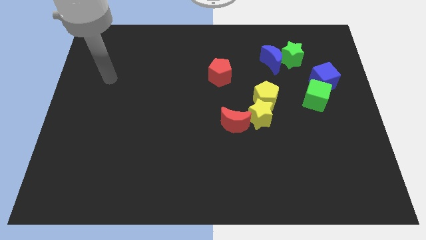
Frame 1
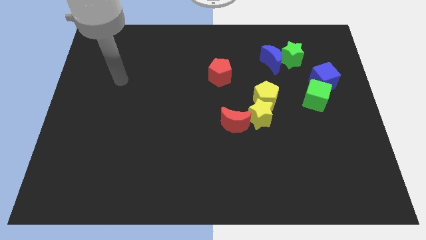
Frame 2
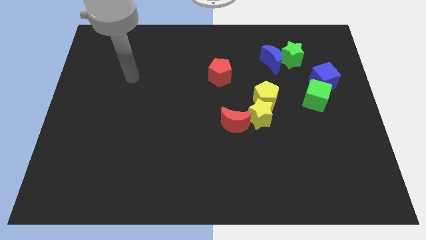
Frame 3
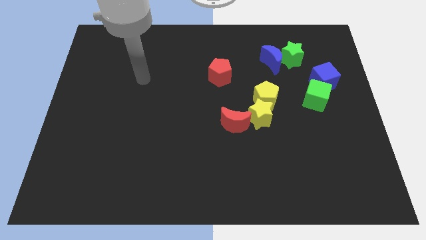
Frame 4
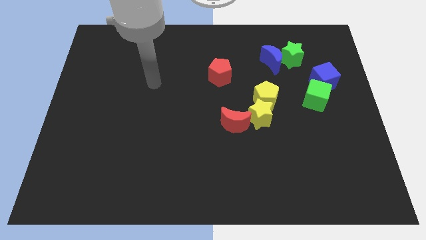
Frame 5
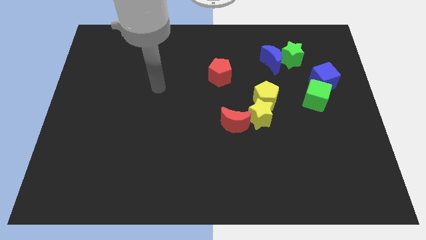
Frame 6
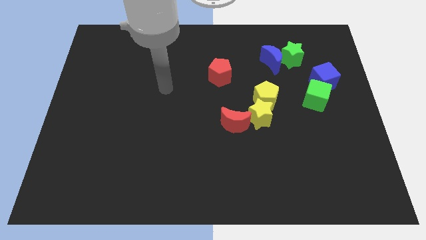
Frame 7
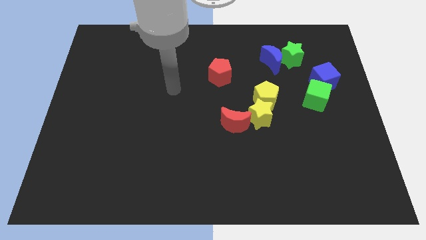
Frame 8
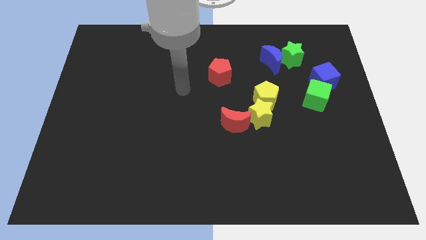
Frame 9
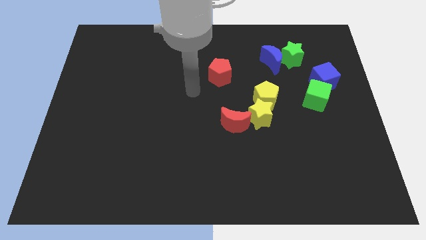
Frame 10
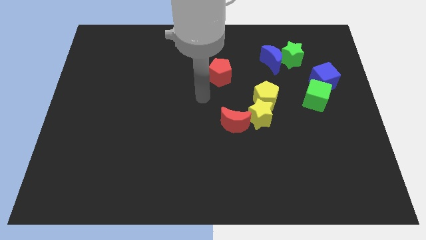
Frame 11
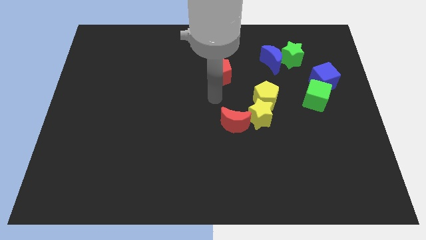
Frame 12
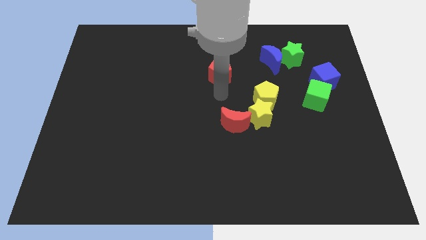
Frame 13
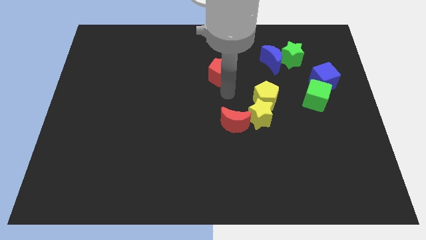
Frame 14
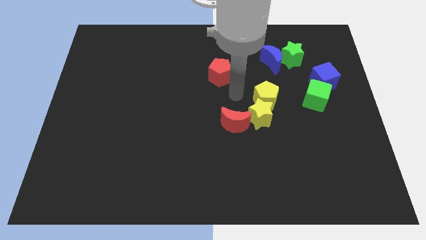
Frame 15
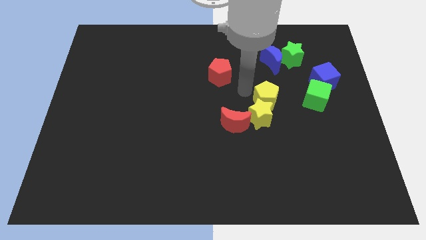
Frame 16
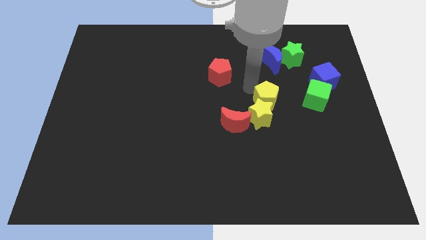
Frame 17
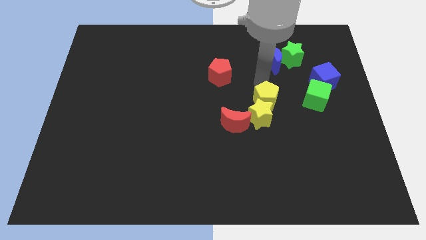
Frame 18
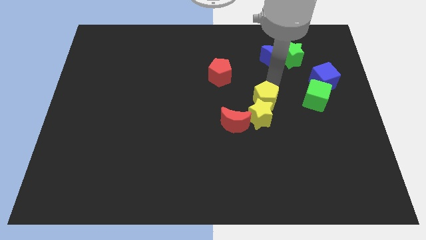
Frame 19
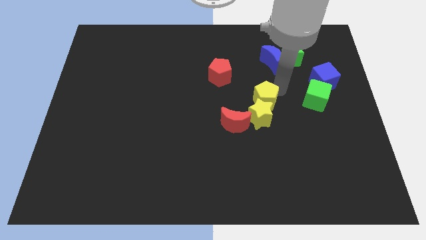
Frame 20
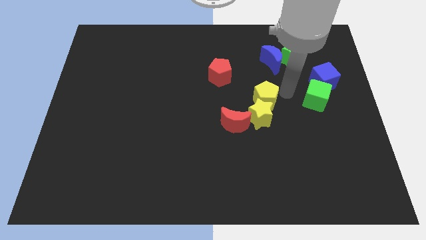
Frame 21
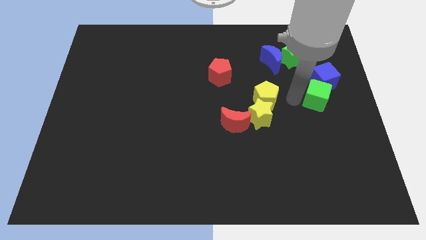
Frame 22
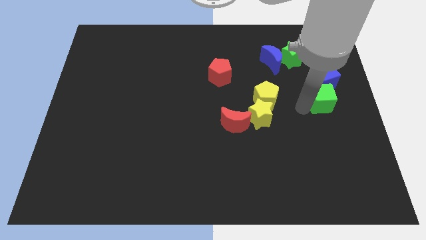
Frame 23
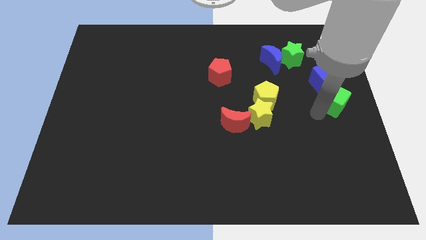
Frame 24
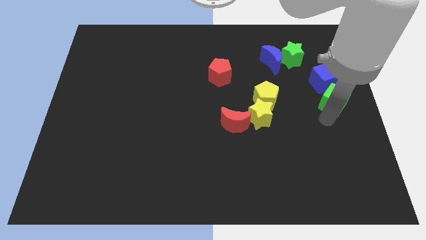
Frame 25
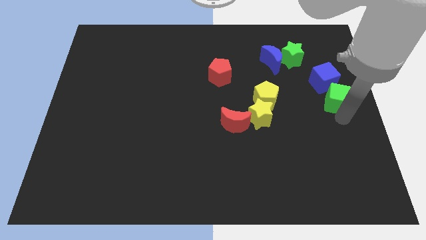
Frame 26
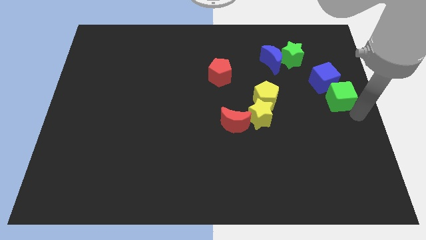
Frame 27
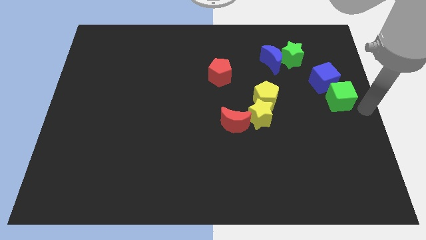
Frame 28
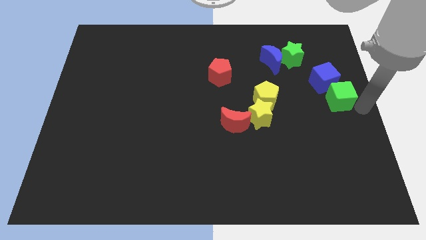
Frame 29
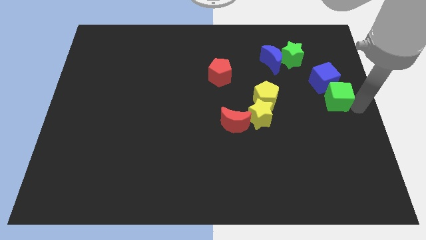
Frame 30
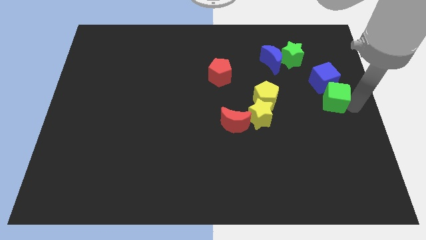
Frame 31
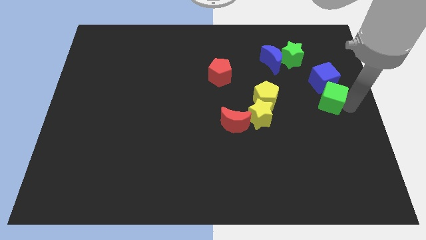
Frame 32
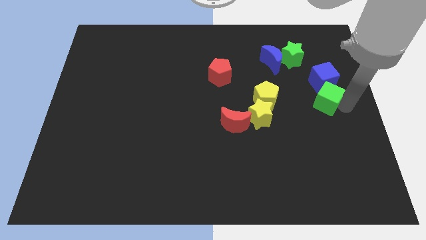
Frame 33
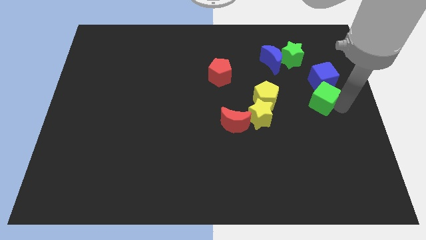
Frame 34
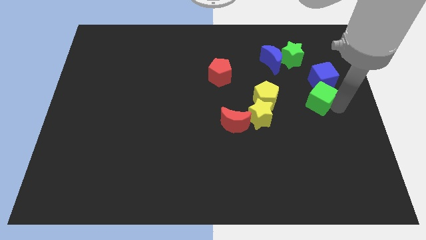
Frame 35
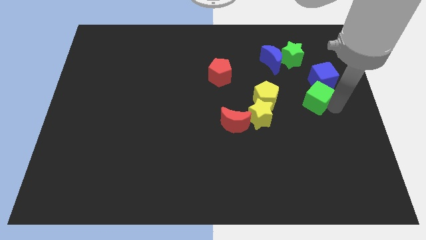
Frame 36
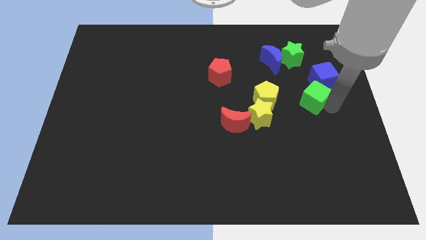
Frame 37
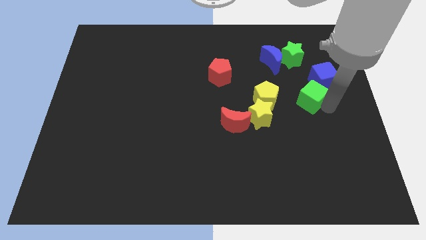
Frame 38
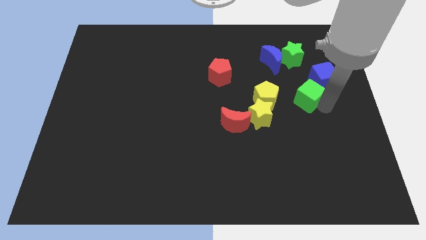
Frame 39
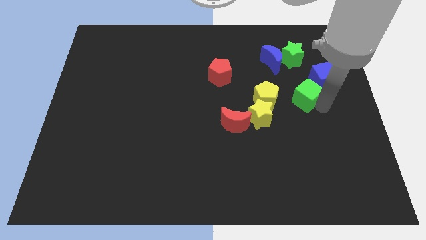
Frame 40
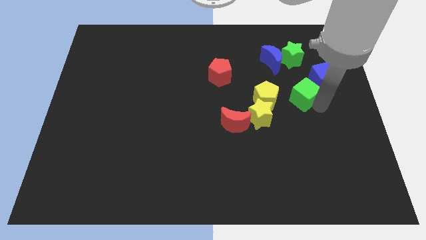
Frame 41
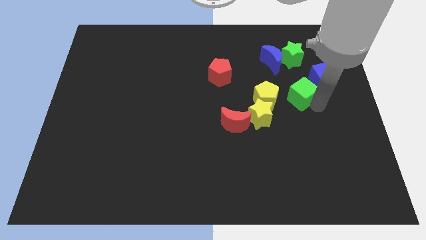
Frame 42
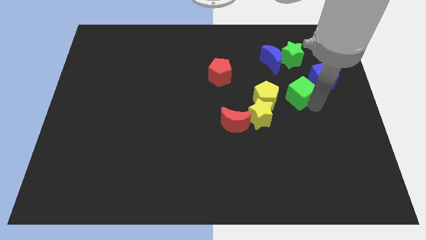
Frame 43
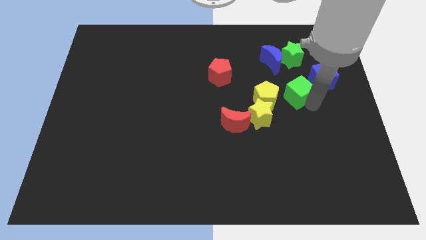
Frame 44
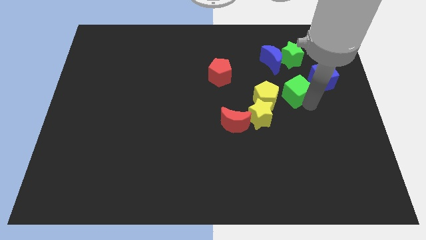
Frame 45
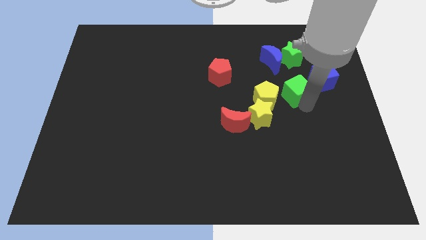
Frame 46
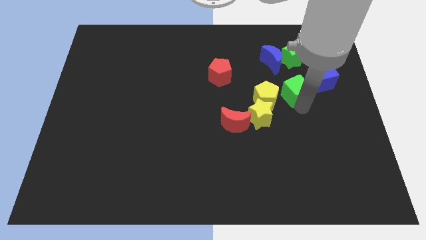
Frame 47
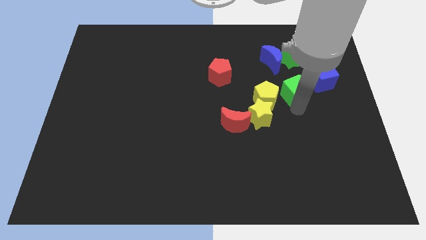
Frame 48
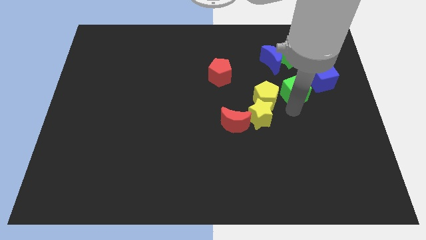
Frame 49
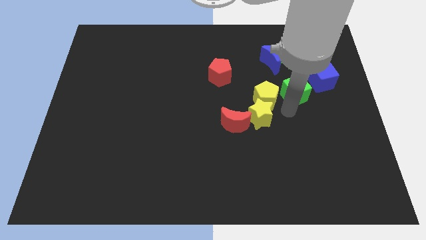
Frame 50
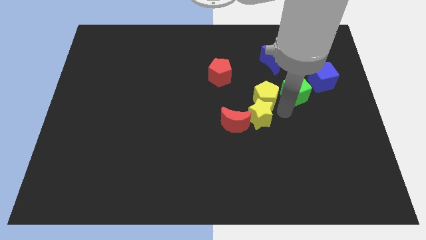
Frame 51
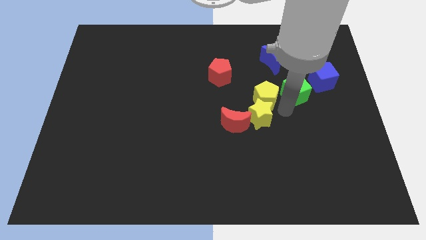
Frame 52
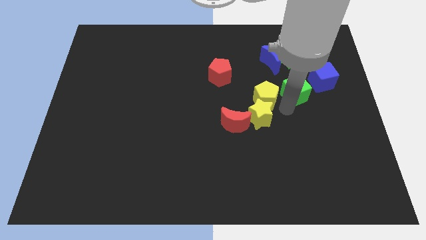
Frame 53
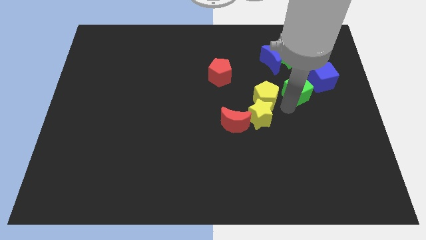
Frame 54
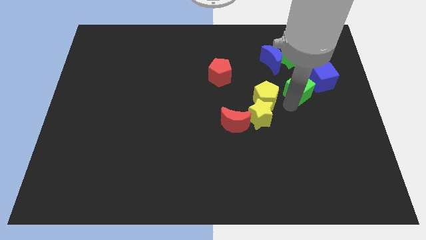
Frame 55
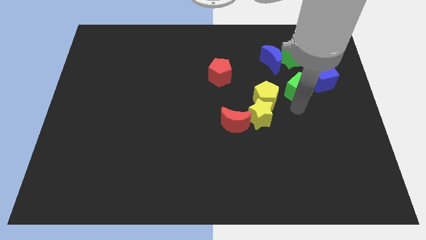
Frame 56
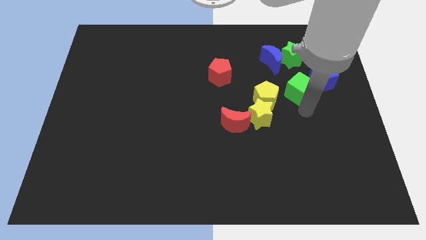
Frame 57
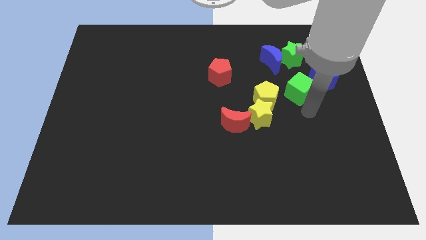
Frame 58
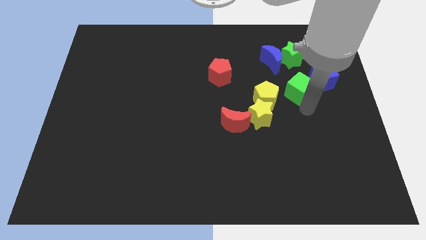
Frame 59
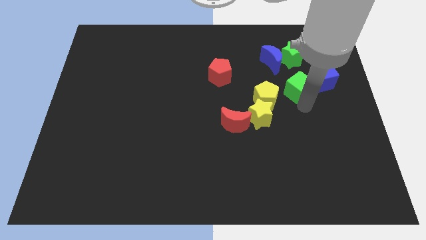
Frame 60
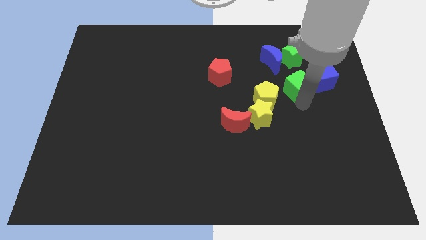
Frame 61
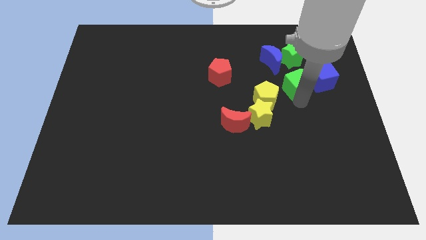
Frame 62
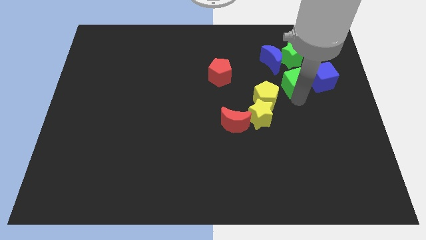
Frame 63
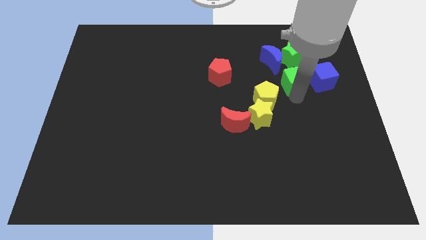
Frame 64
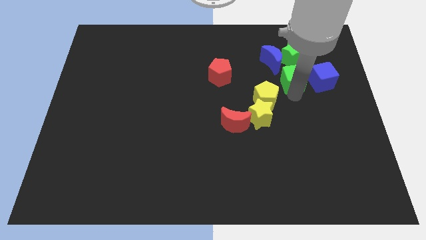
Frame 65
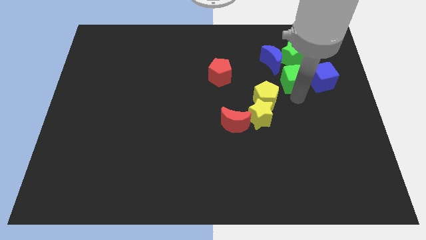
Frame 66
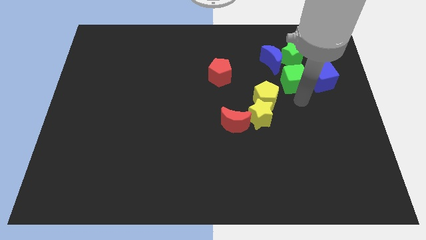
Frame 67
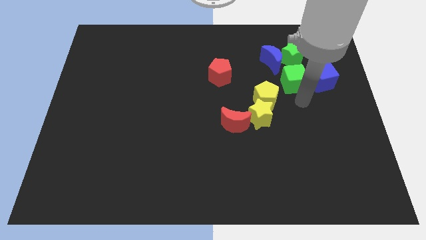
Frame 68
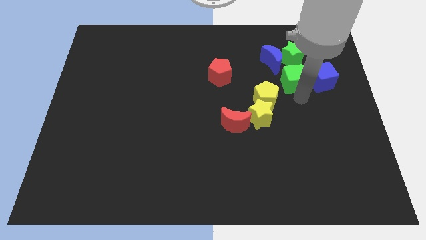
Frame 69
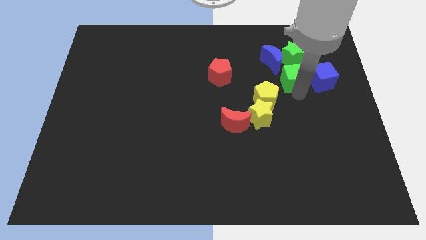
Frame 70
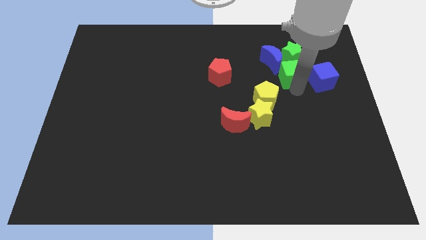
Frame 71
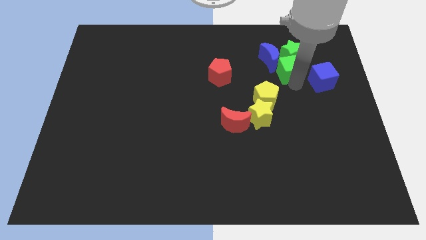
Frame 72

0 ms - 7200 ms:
slide the green cube next to the blue moon
